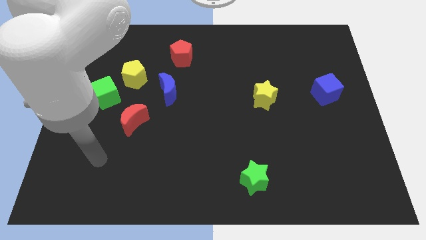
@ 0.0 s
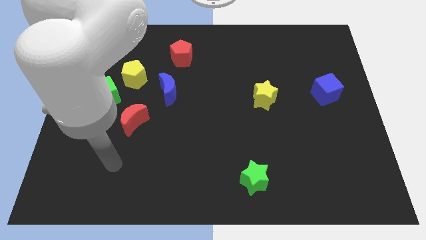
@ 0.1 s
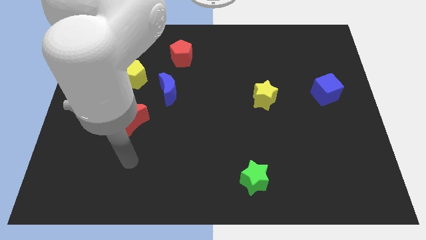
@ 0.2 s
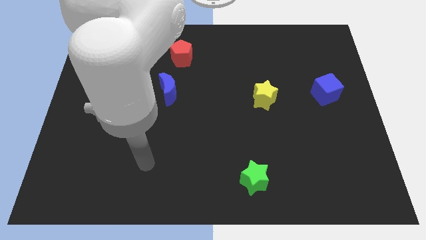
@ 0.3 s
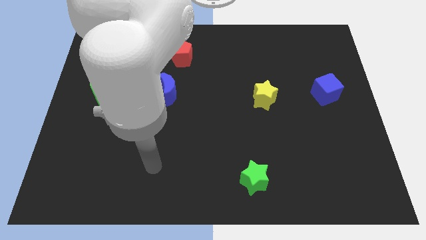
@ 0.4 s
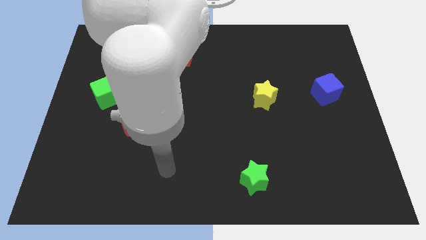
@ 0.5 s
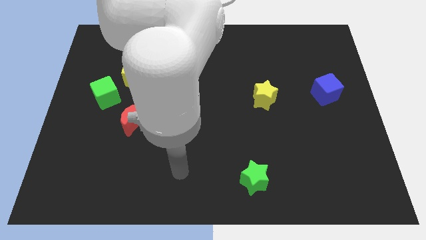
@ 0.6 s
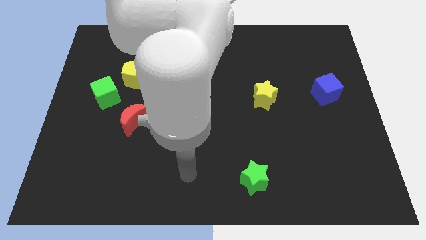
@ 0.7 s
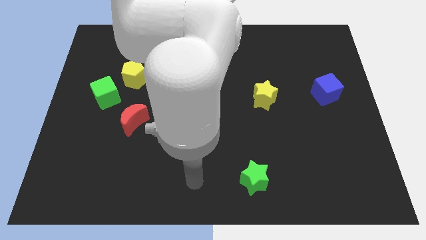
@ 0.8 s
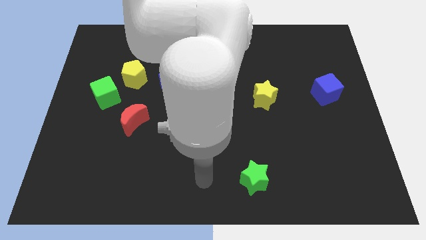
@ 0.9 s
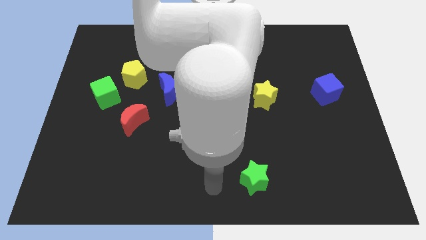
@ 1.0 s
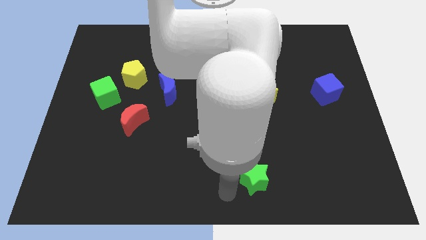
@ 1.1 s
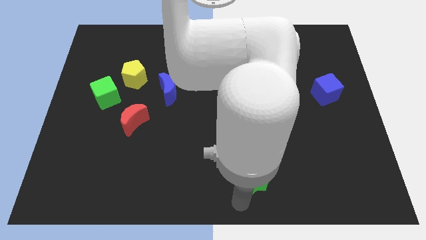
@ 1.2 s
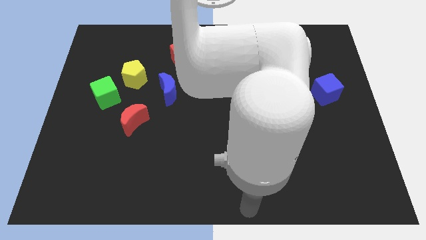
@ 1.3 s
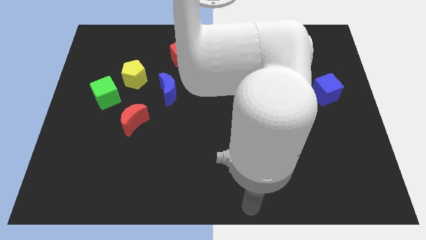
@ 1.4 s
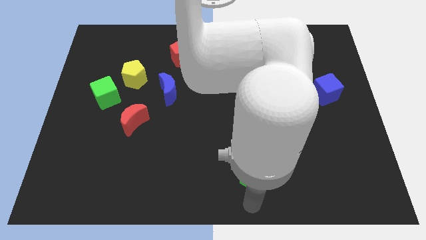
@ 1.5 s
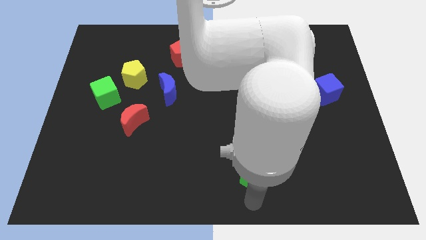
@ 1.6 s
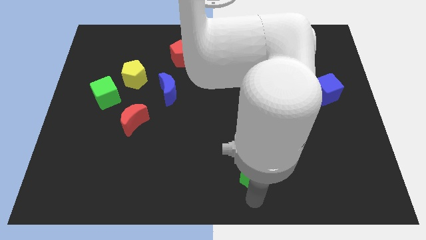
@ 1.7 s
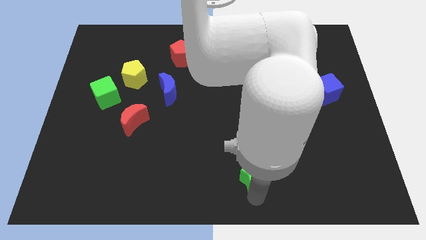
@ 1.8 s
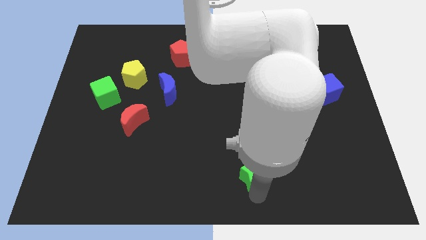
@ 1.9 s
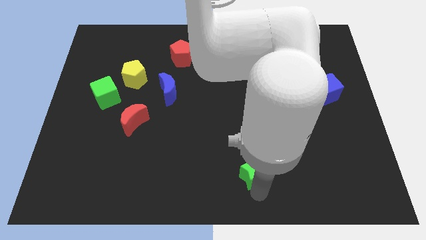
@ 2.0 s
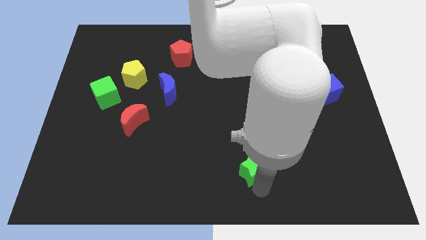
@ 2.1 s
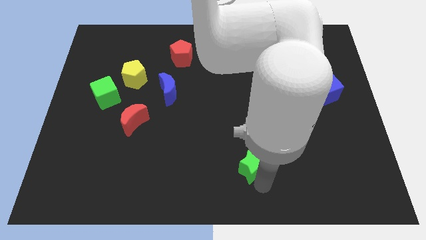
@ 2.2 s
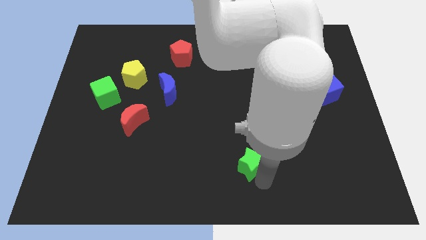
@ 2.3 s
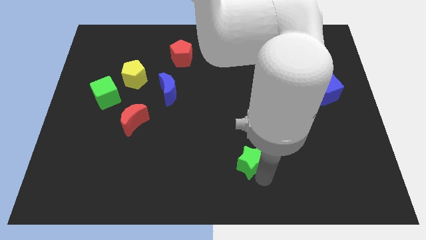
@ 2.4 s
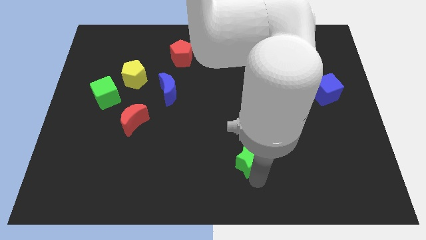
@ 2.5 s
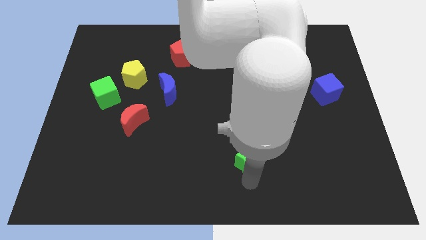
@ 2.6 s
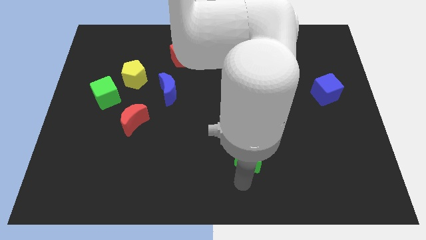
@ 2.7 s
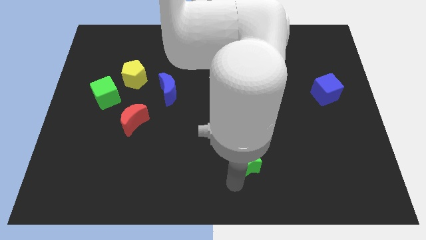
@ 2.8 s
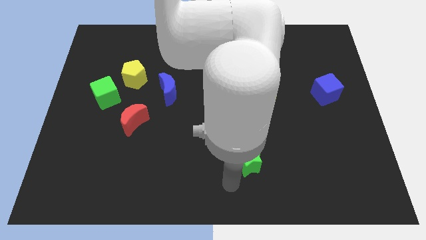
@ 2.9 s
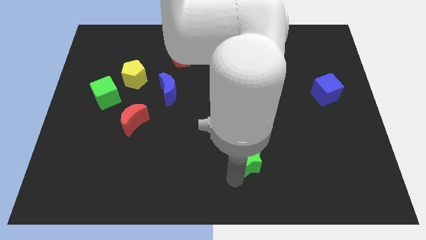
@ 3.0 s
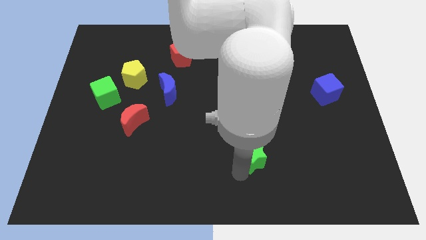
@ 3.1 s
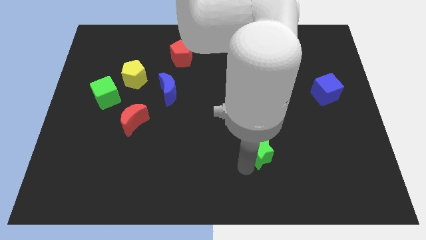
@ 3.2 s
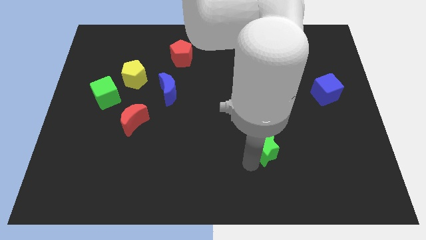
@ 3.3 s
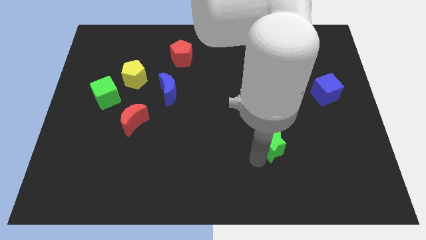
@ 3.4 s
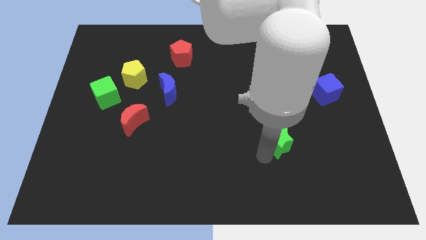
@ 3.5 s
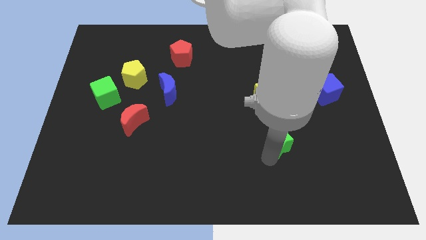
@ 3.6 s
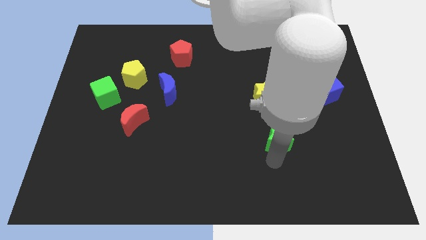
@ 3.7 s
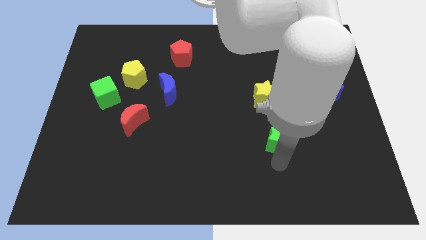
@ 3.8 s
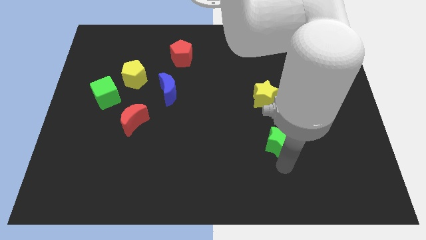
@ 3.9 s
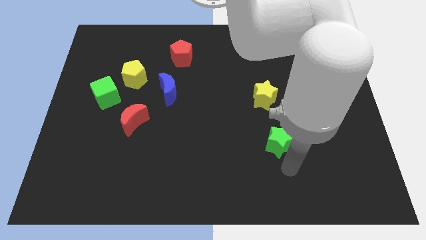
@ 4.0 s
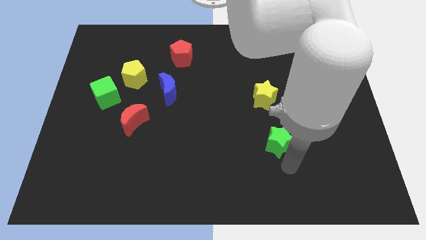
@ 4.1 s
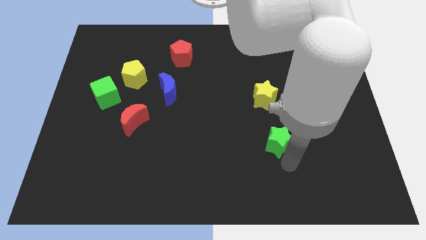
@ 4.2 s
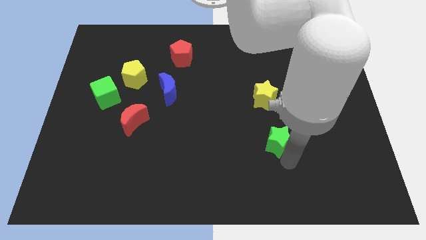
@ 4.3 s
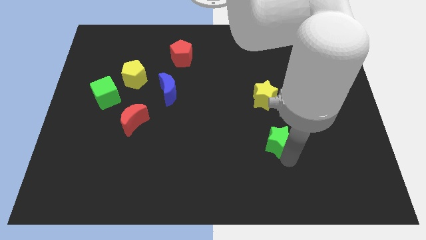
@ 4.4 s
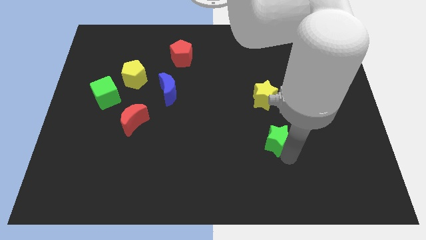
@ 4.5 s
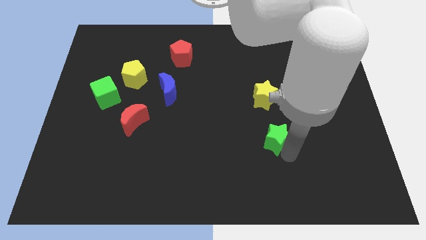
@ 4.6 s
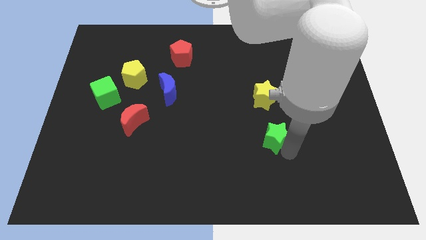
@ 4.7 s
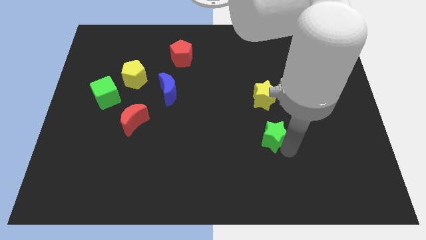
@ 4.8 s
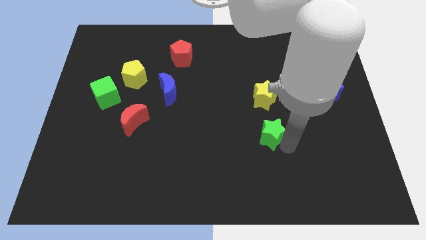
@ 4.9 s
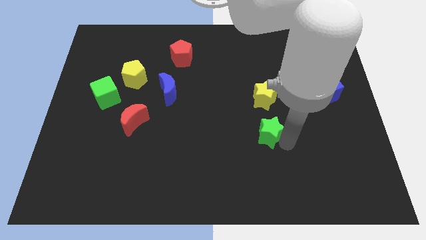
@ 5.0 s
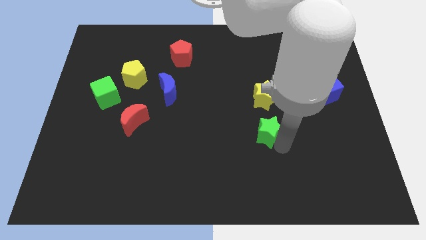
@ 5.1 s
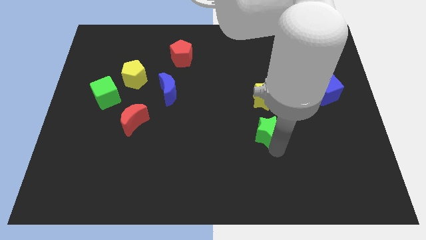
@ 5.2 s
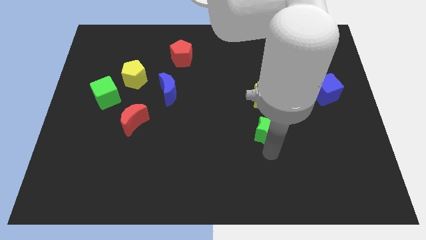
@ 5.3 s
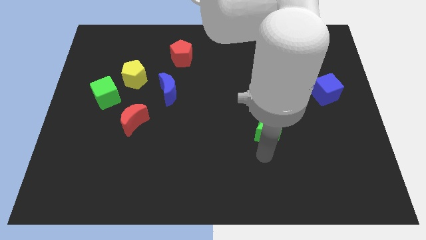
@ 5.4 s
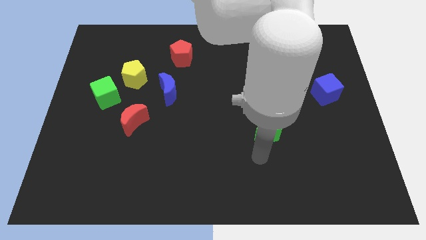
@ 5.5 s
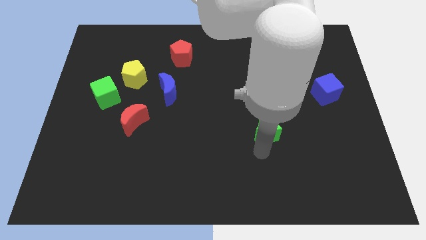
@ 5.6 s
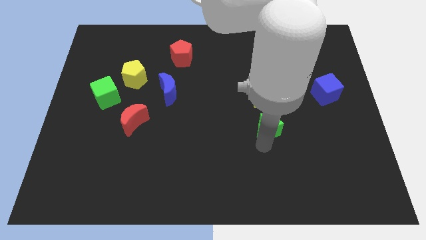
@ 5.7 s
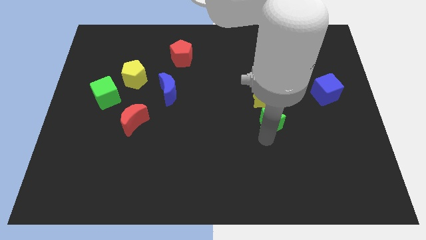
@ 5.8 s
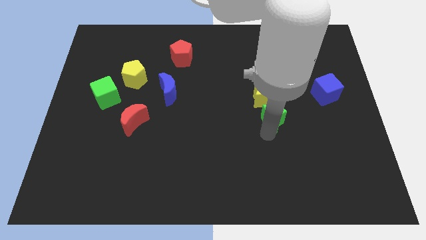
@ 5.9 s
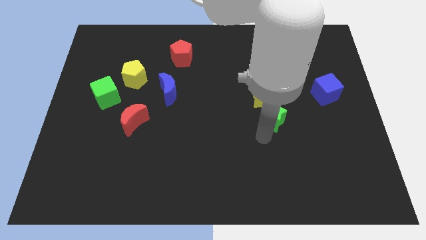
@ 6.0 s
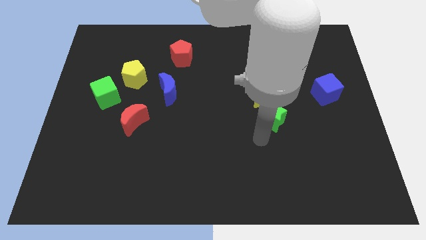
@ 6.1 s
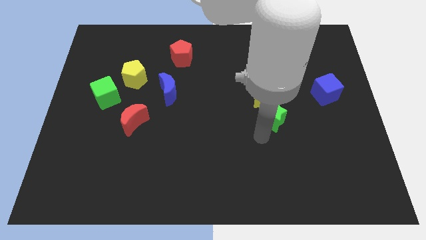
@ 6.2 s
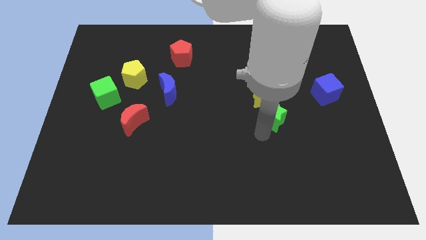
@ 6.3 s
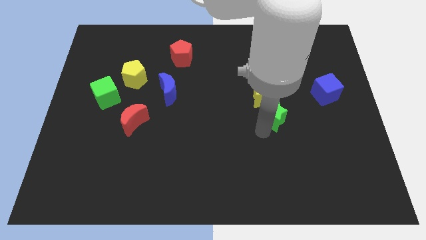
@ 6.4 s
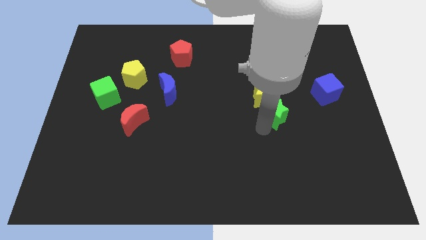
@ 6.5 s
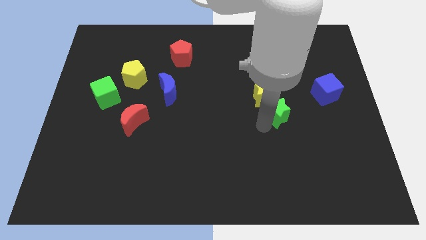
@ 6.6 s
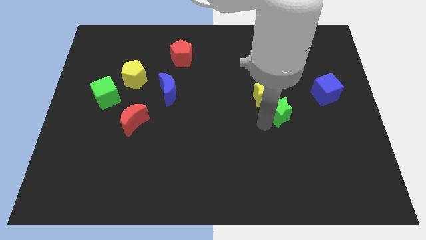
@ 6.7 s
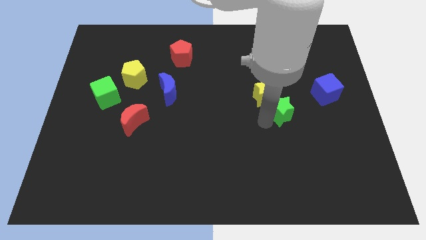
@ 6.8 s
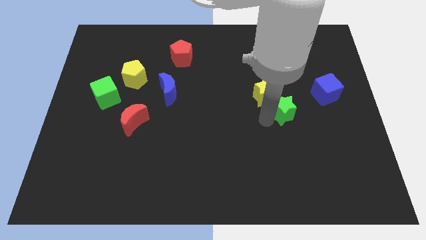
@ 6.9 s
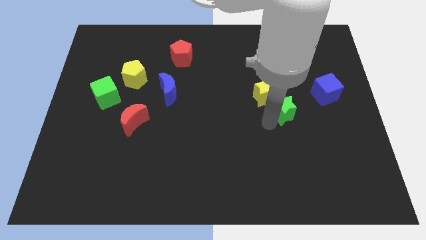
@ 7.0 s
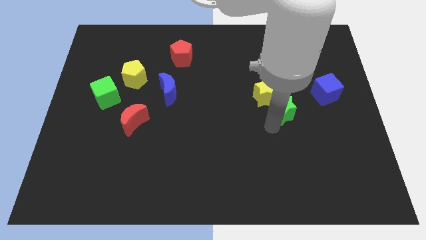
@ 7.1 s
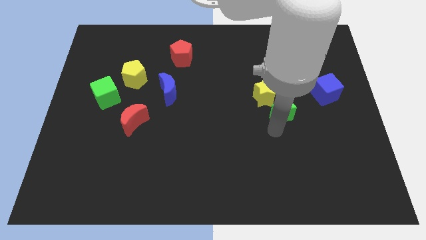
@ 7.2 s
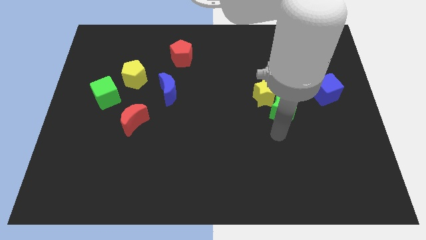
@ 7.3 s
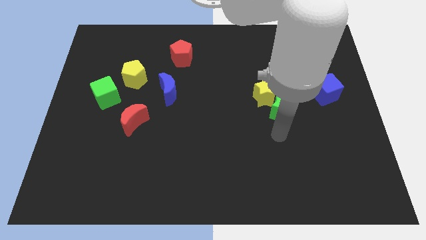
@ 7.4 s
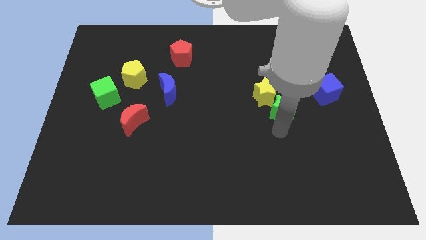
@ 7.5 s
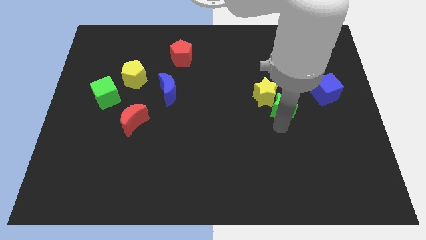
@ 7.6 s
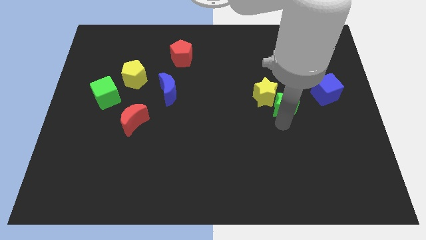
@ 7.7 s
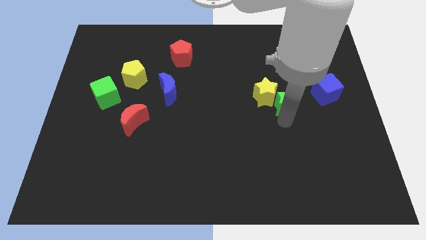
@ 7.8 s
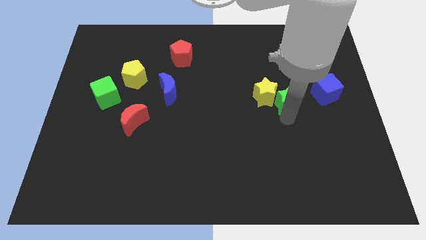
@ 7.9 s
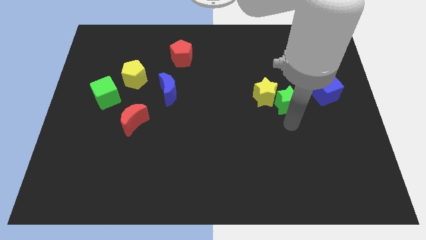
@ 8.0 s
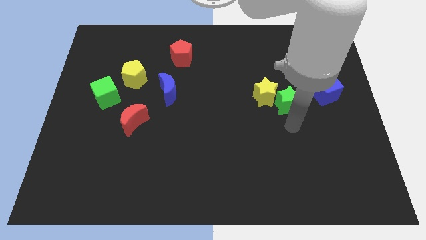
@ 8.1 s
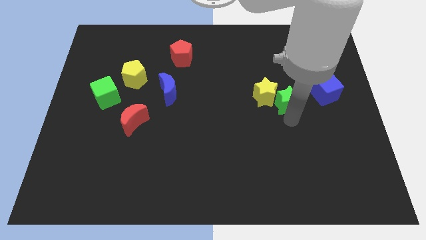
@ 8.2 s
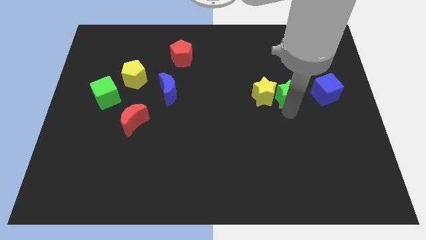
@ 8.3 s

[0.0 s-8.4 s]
put the green star to the top right of the yellow star
